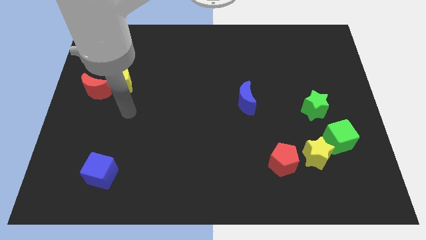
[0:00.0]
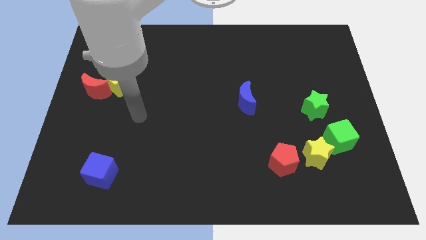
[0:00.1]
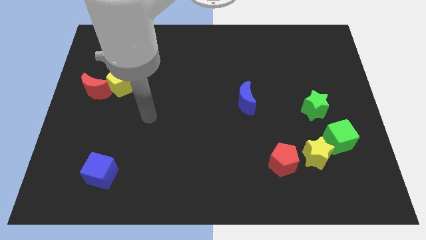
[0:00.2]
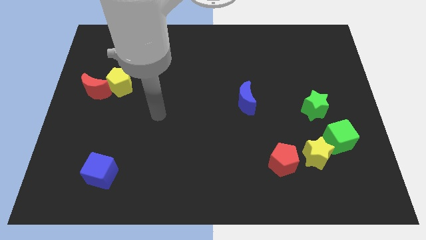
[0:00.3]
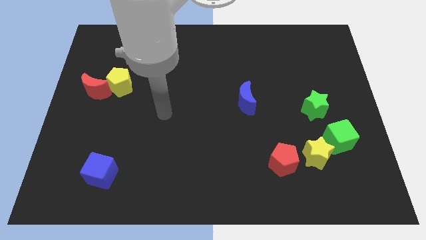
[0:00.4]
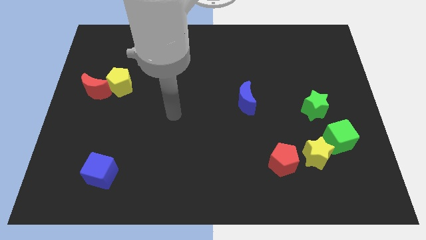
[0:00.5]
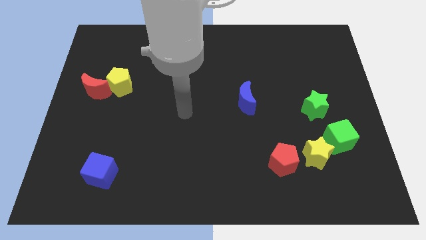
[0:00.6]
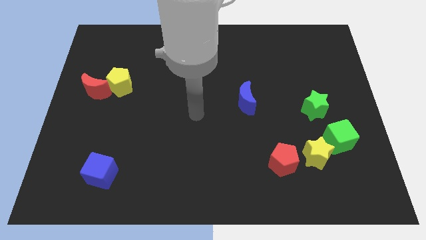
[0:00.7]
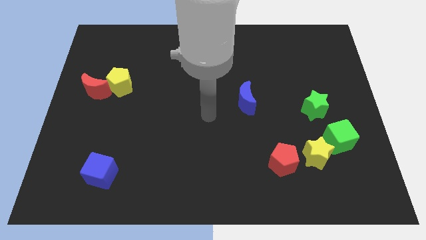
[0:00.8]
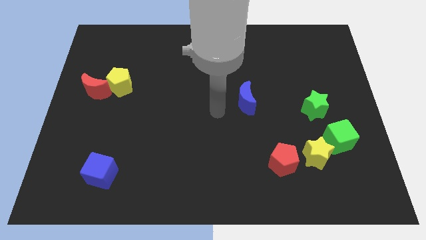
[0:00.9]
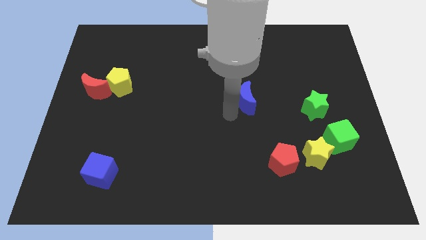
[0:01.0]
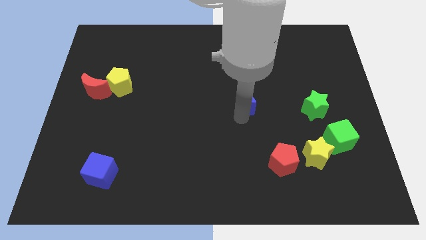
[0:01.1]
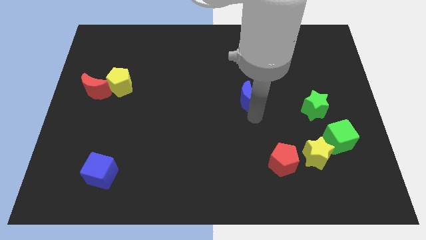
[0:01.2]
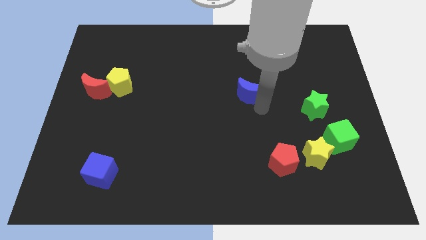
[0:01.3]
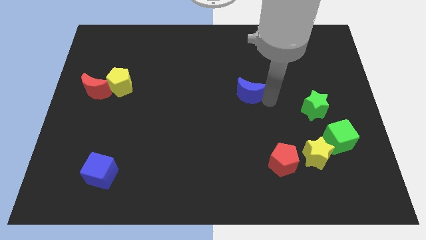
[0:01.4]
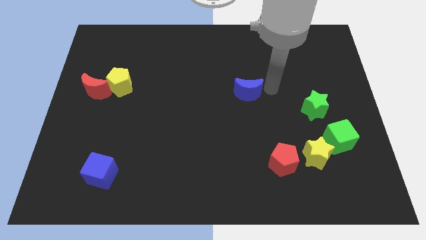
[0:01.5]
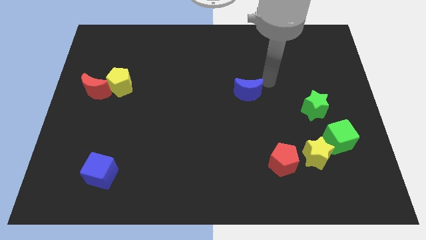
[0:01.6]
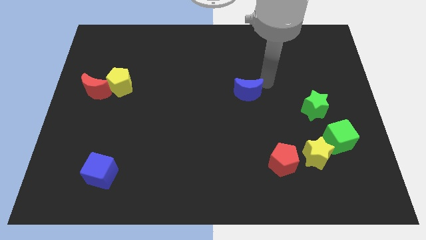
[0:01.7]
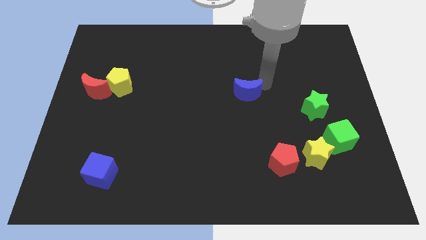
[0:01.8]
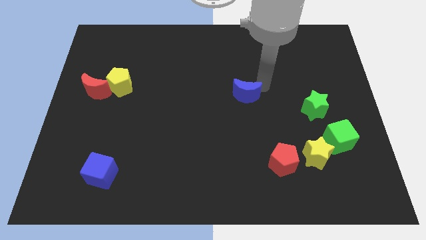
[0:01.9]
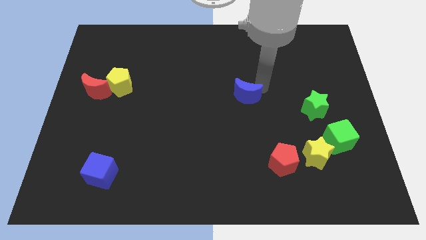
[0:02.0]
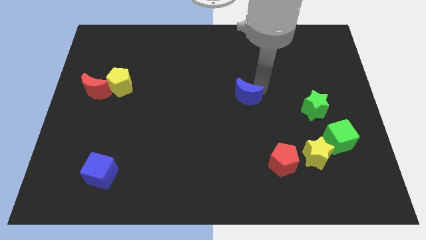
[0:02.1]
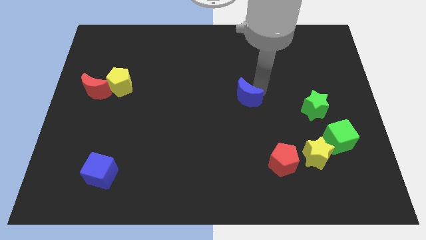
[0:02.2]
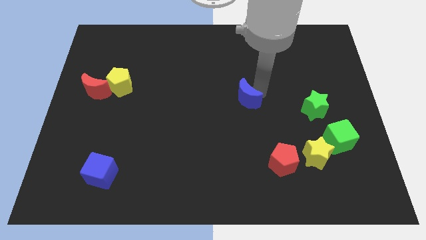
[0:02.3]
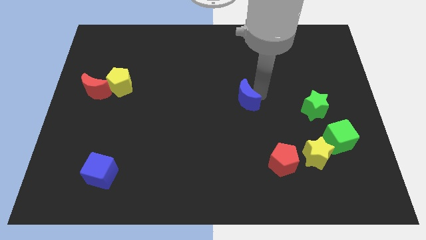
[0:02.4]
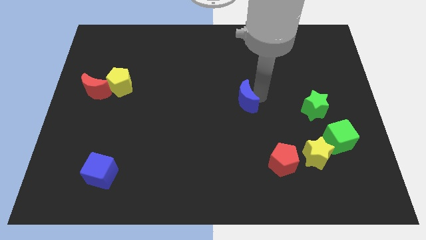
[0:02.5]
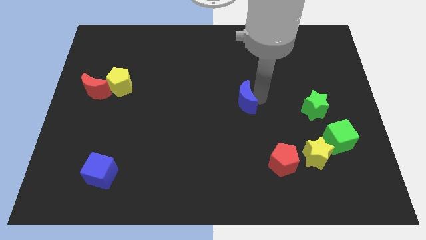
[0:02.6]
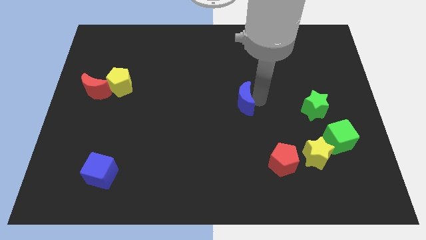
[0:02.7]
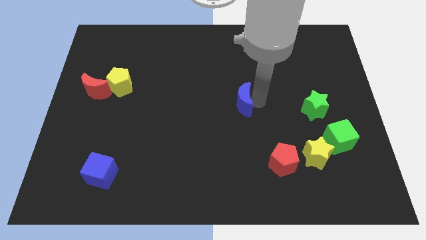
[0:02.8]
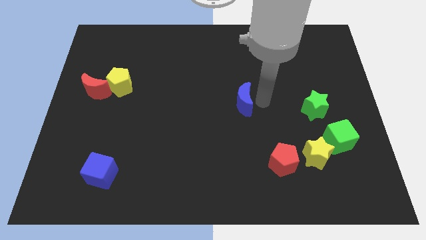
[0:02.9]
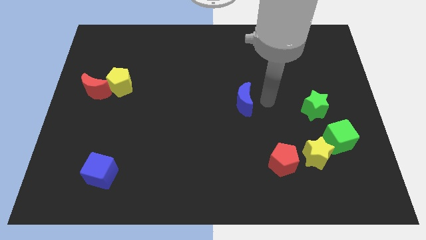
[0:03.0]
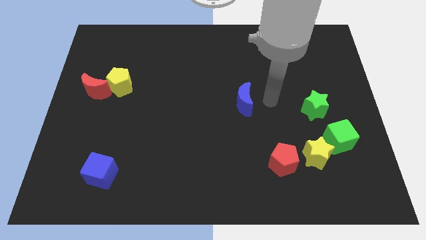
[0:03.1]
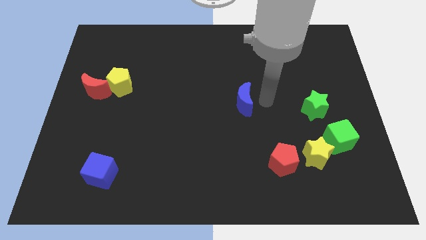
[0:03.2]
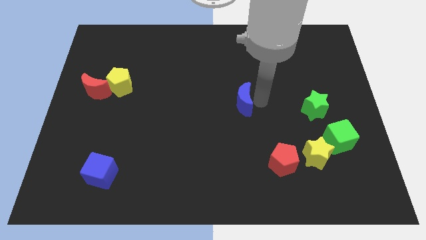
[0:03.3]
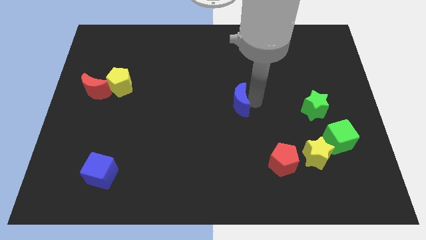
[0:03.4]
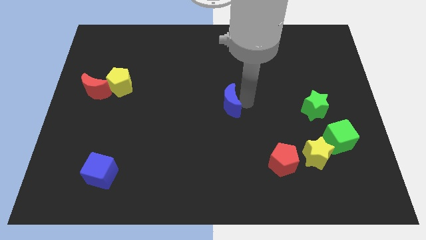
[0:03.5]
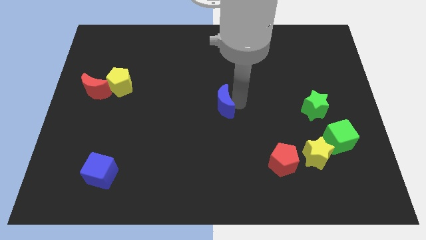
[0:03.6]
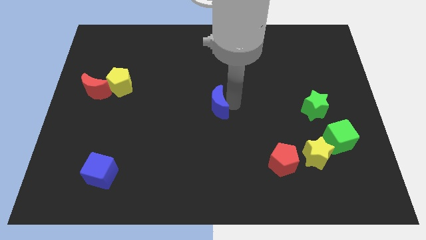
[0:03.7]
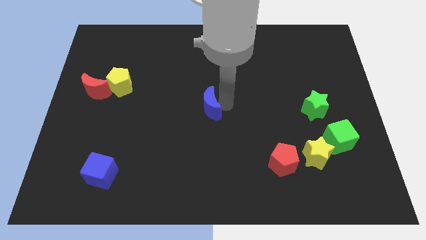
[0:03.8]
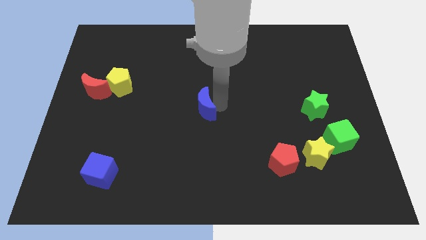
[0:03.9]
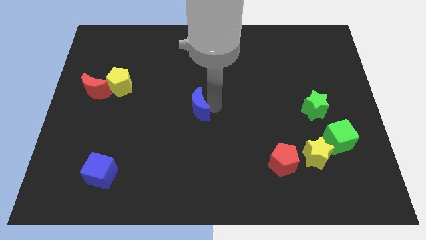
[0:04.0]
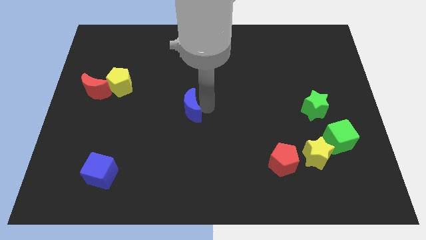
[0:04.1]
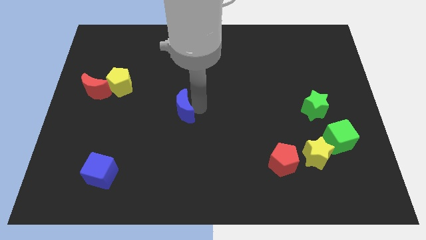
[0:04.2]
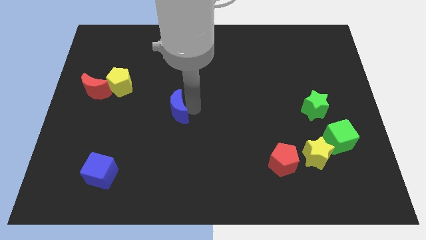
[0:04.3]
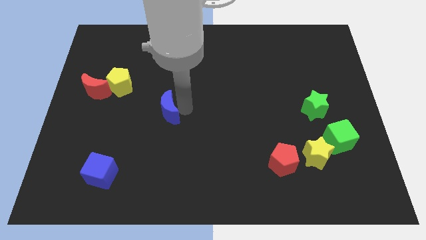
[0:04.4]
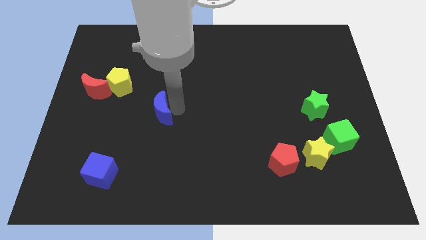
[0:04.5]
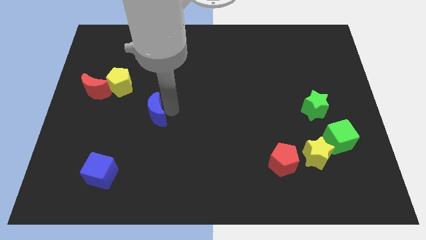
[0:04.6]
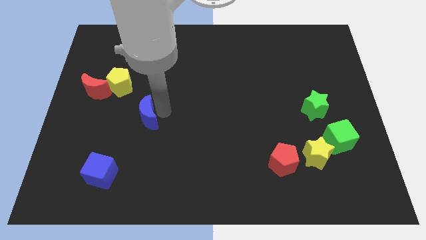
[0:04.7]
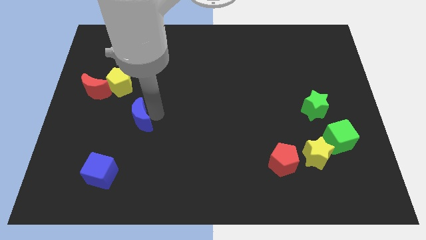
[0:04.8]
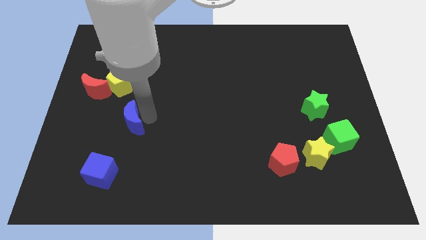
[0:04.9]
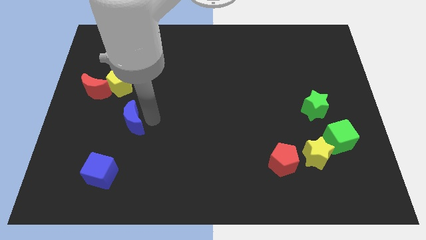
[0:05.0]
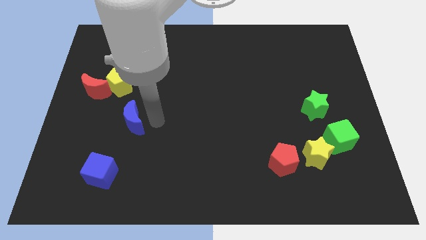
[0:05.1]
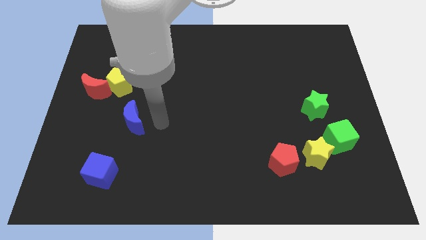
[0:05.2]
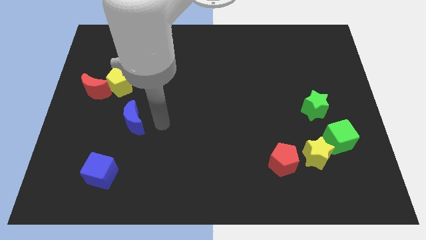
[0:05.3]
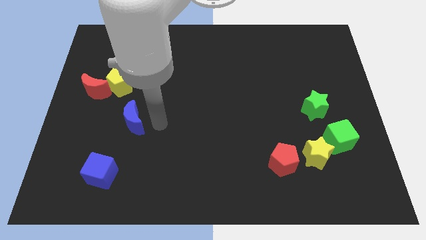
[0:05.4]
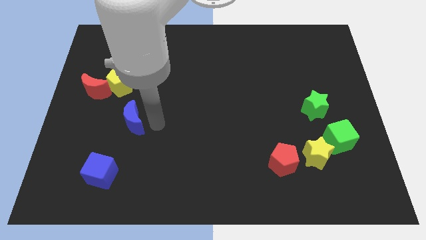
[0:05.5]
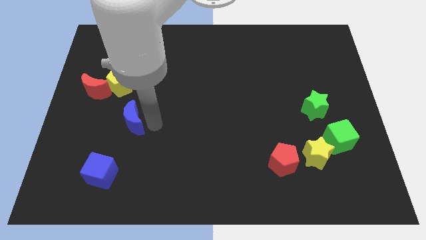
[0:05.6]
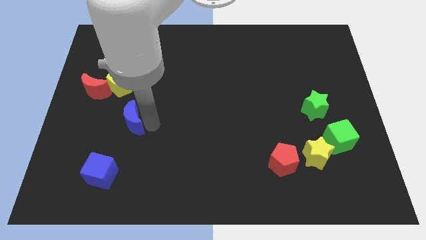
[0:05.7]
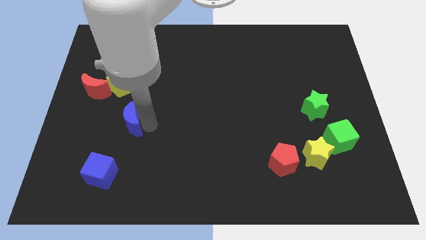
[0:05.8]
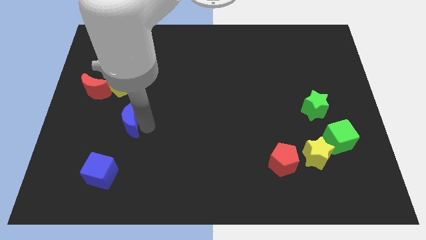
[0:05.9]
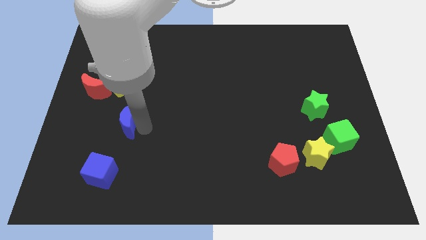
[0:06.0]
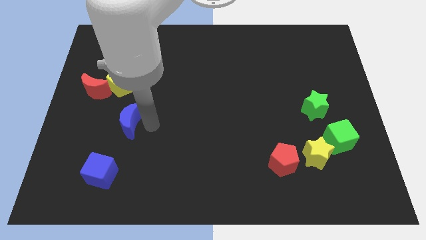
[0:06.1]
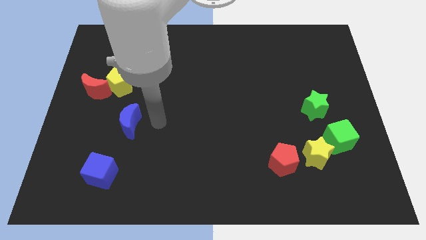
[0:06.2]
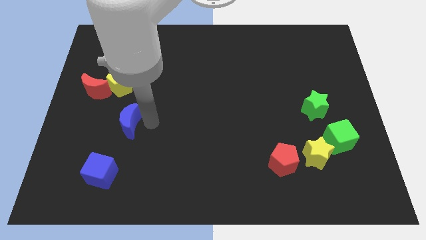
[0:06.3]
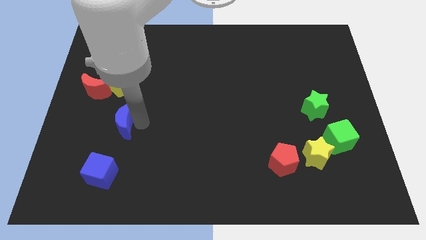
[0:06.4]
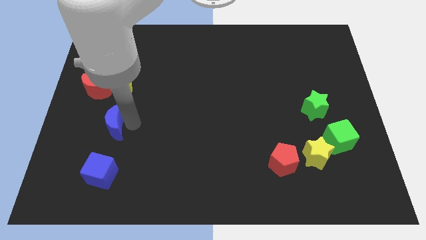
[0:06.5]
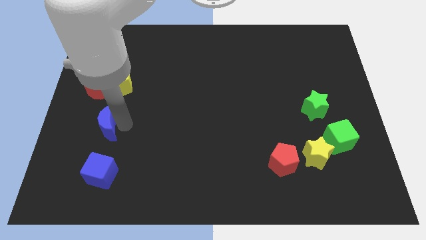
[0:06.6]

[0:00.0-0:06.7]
move the blue moon to the bottom side of the red moon

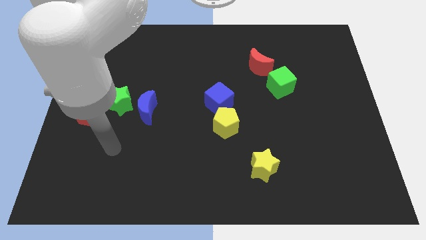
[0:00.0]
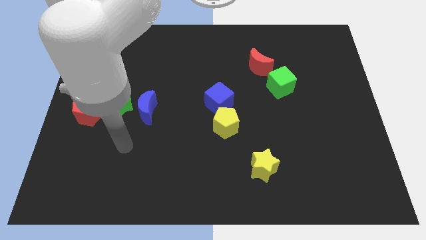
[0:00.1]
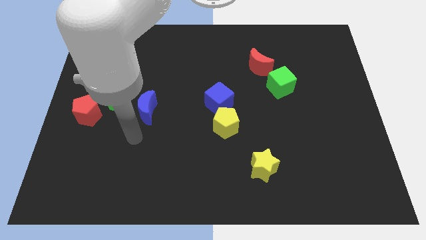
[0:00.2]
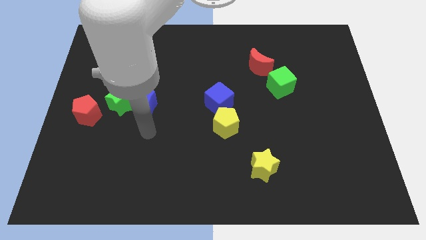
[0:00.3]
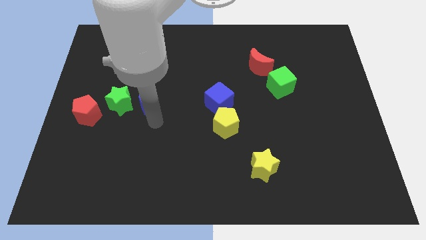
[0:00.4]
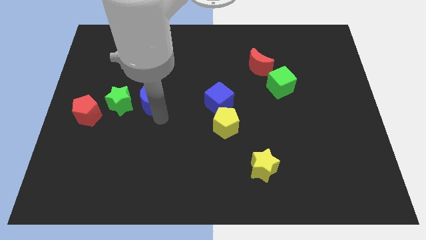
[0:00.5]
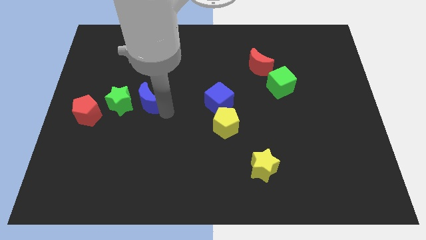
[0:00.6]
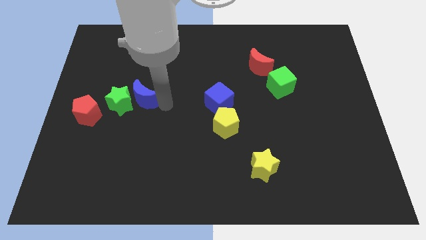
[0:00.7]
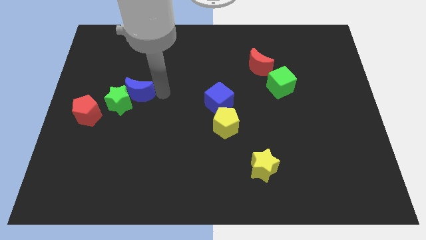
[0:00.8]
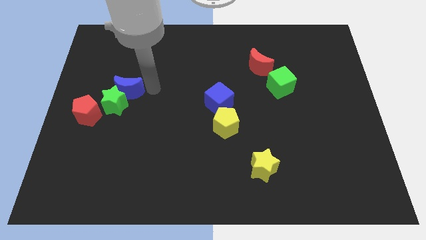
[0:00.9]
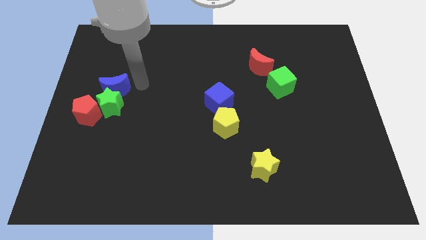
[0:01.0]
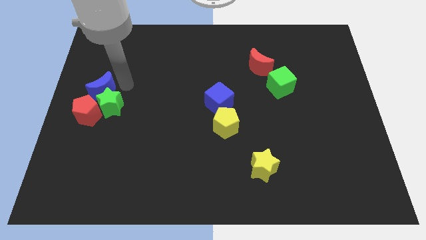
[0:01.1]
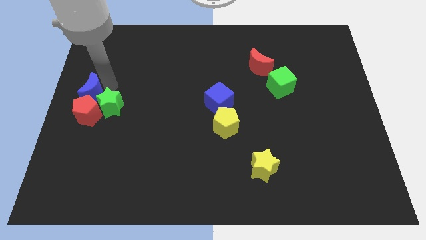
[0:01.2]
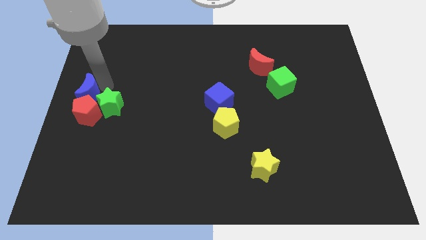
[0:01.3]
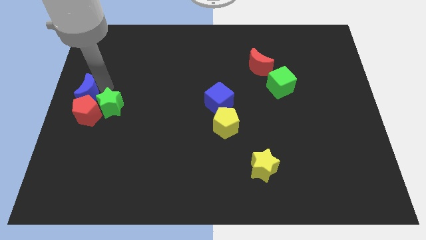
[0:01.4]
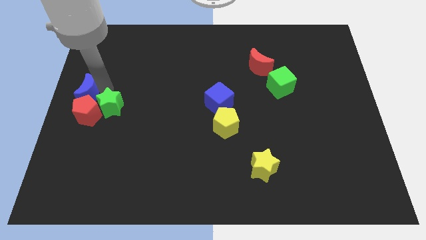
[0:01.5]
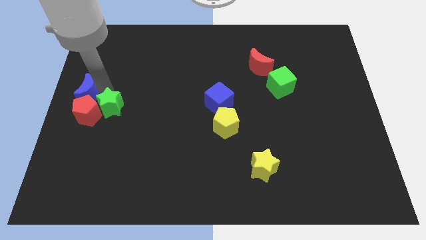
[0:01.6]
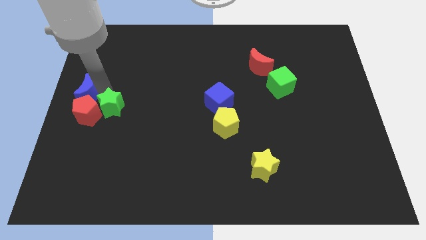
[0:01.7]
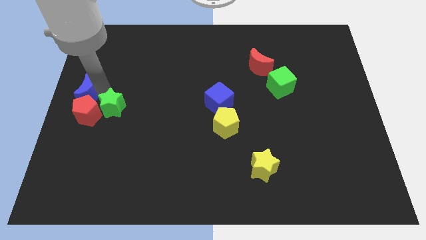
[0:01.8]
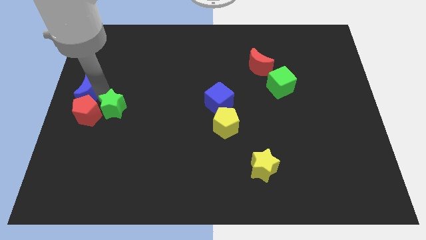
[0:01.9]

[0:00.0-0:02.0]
move the green star to the bottom right side of the red pentagon
